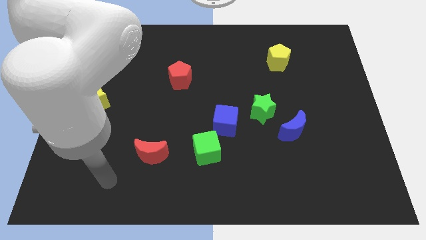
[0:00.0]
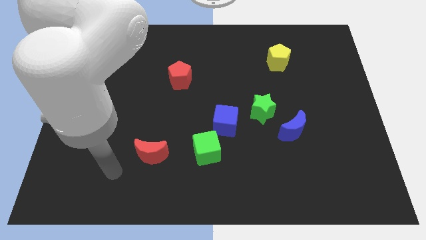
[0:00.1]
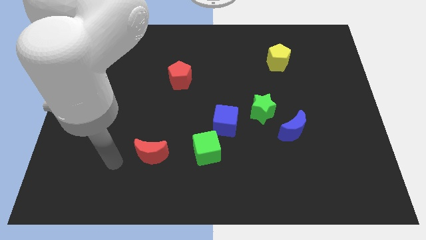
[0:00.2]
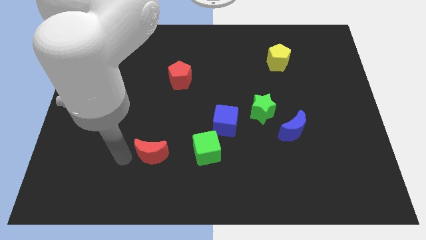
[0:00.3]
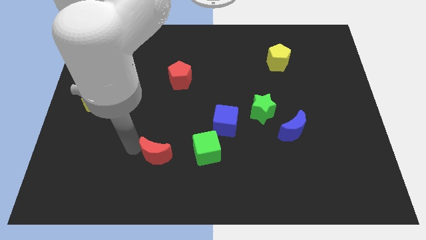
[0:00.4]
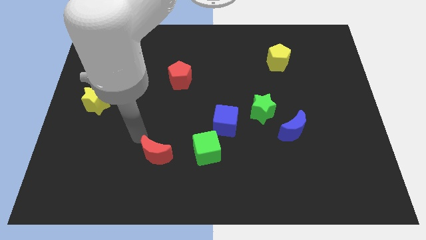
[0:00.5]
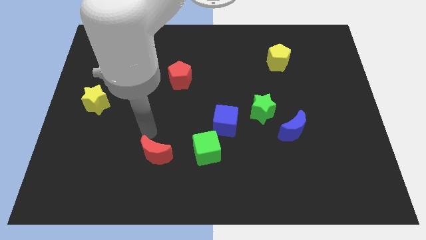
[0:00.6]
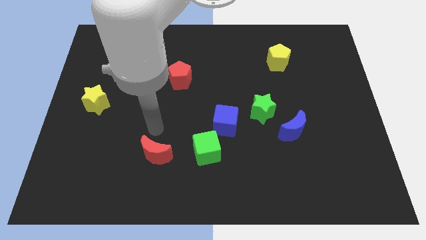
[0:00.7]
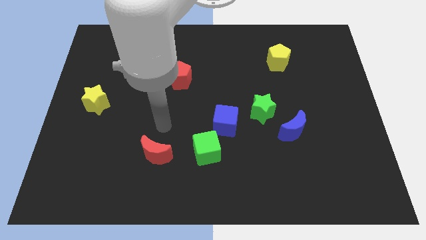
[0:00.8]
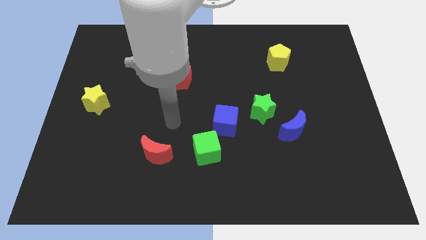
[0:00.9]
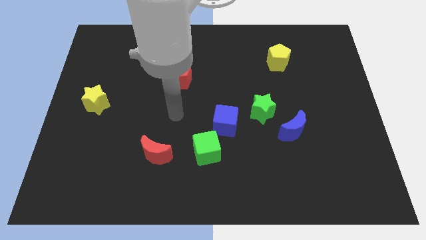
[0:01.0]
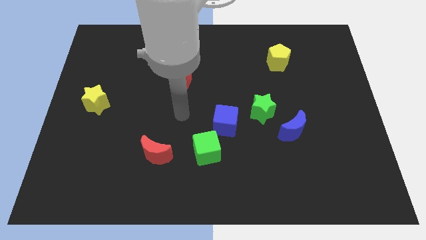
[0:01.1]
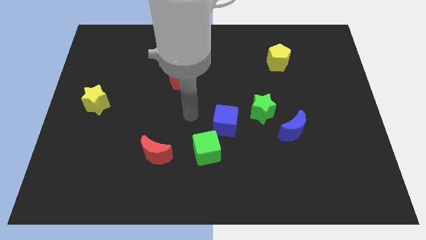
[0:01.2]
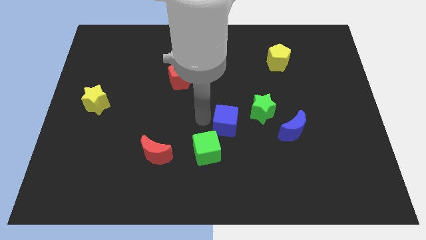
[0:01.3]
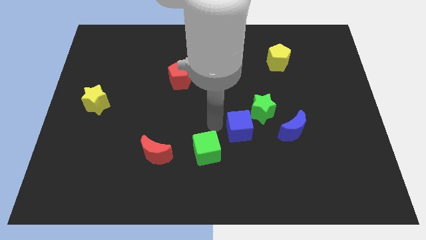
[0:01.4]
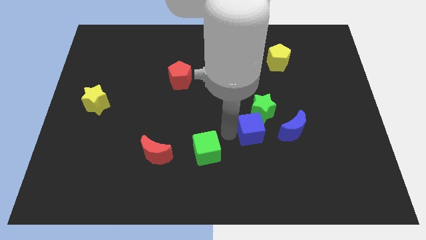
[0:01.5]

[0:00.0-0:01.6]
separate the green cube from the blue cube

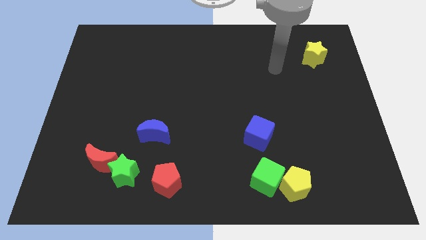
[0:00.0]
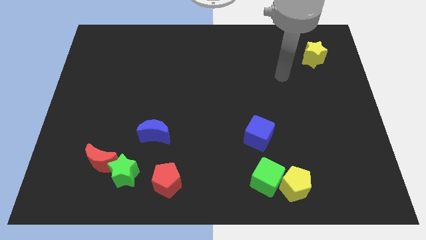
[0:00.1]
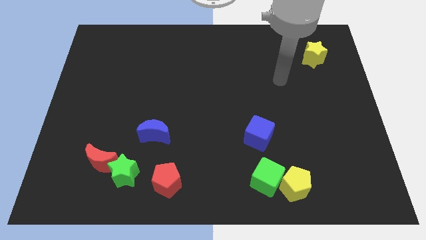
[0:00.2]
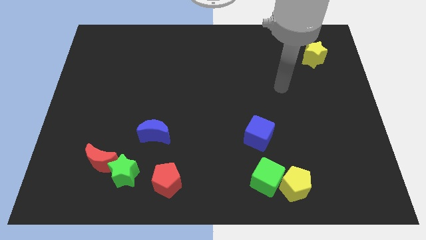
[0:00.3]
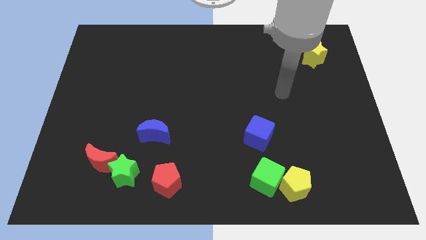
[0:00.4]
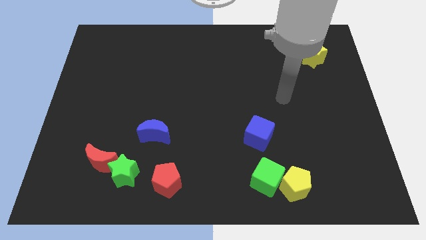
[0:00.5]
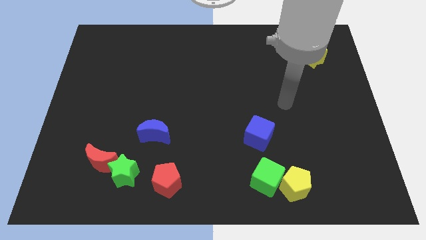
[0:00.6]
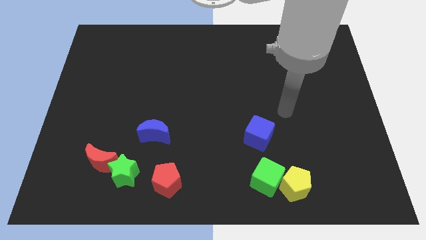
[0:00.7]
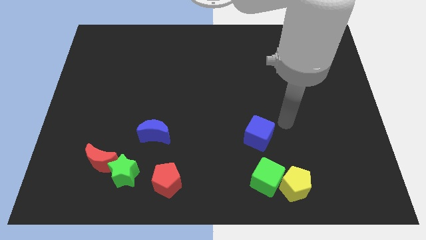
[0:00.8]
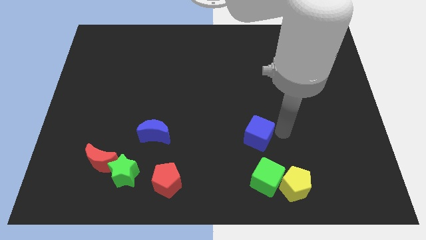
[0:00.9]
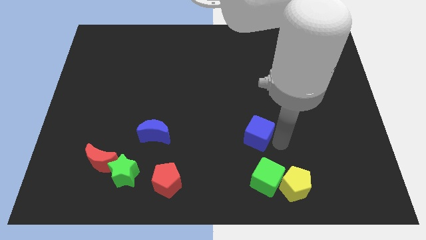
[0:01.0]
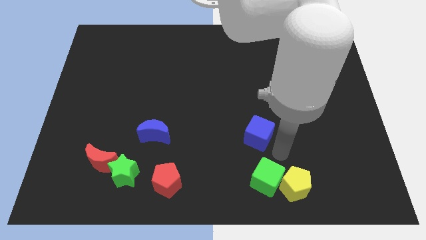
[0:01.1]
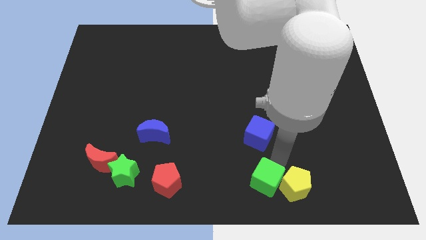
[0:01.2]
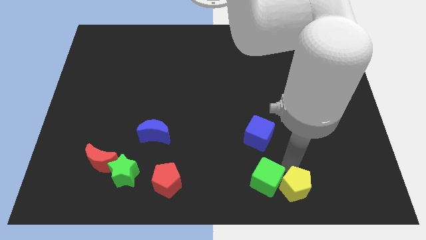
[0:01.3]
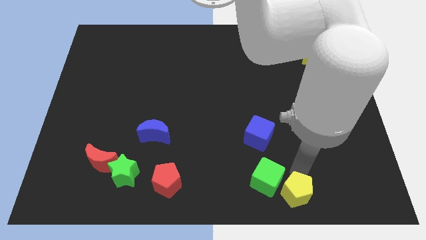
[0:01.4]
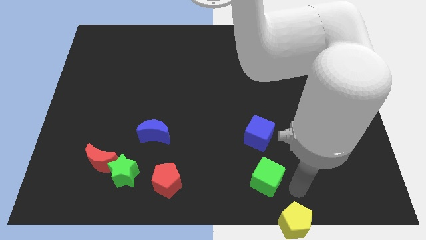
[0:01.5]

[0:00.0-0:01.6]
separate the green cube from the yellow pentagon

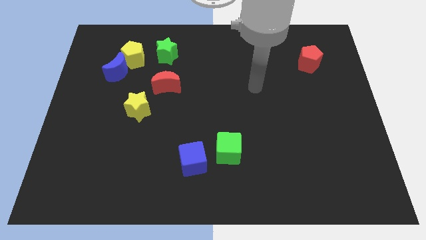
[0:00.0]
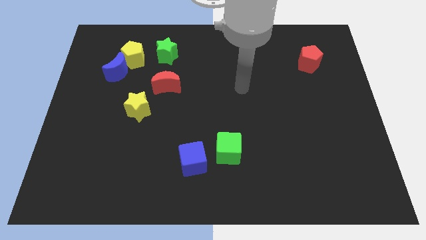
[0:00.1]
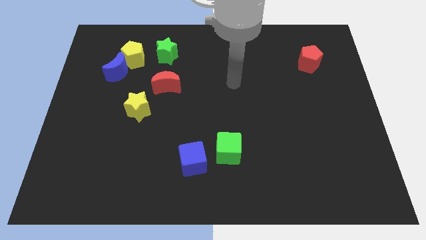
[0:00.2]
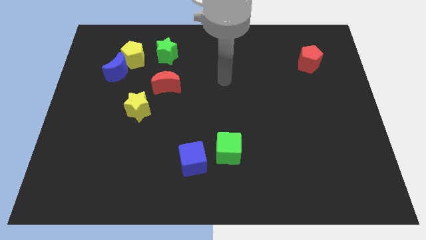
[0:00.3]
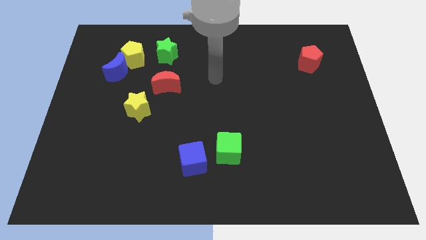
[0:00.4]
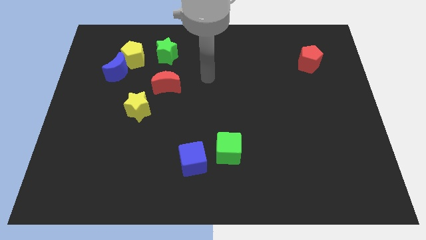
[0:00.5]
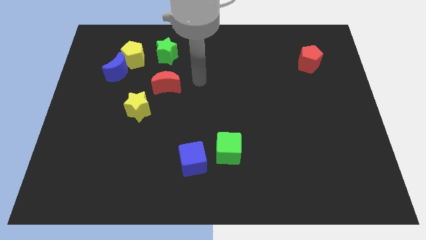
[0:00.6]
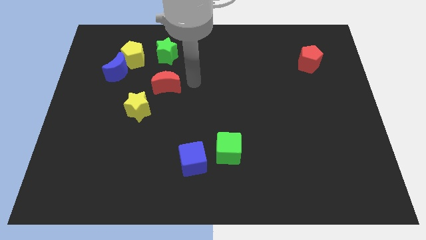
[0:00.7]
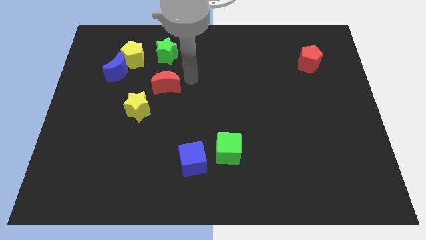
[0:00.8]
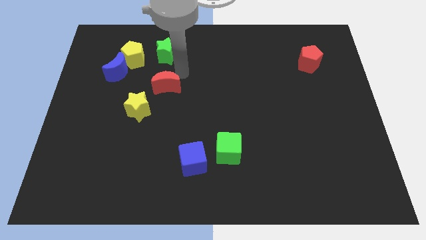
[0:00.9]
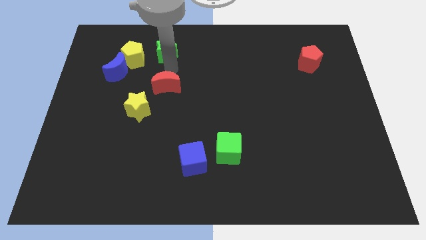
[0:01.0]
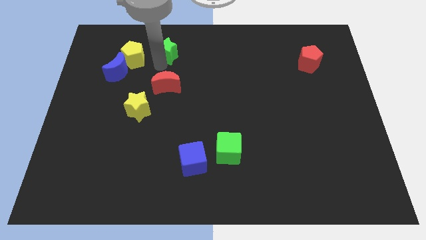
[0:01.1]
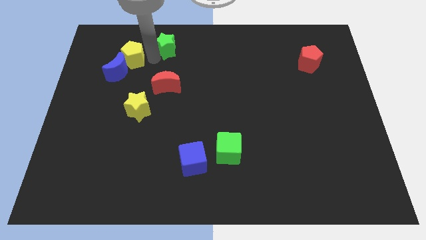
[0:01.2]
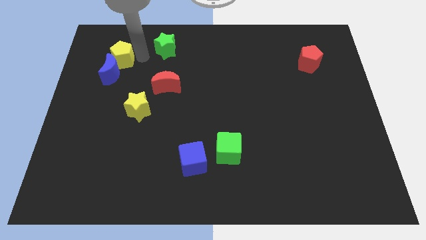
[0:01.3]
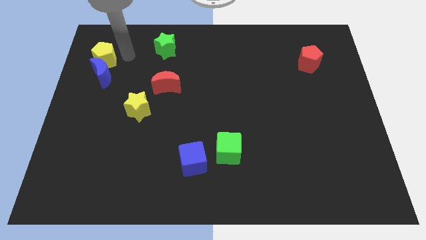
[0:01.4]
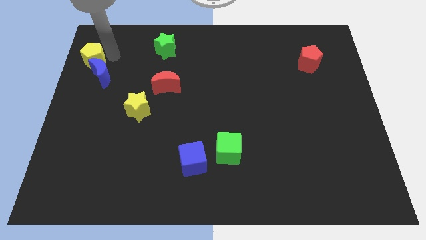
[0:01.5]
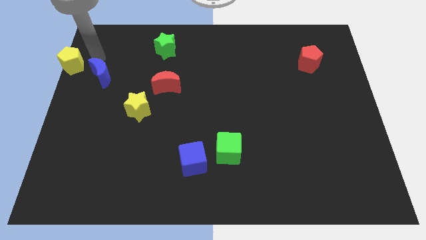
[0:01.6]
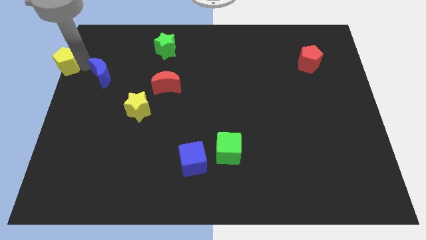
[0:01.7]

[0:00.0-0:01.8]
pull the blue moon apart from the yellow pentagon

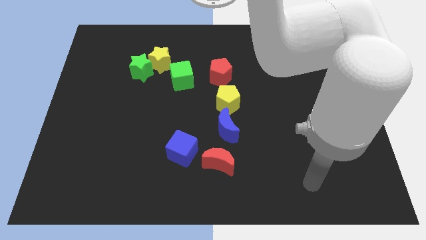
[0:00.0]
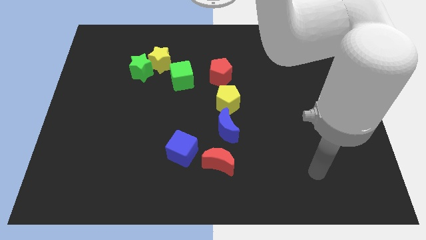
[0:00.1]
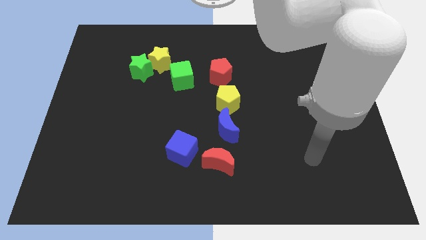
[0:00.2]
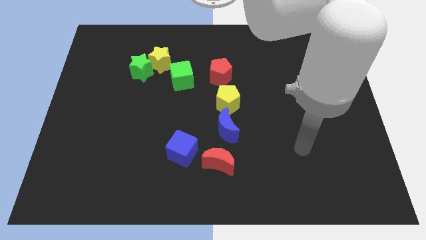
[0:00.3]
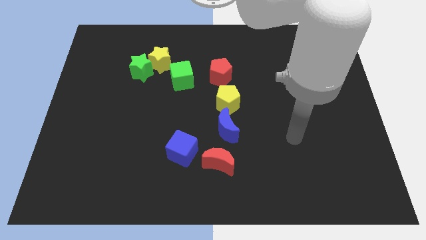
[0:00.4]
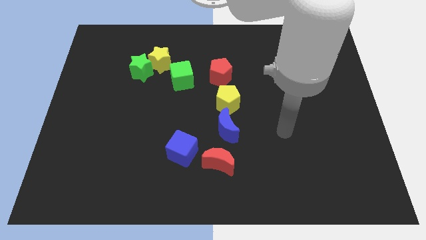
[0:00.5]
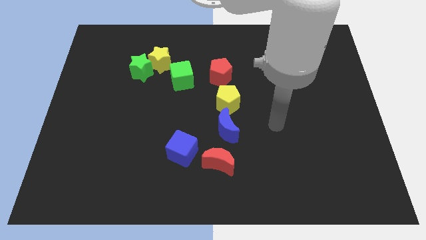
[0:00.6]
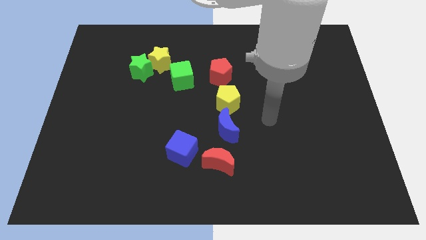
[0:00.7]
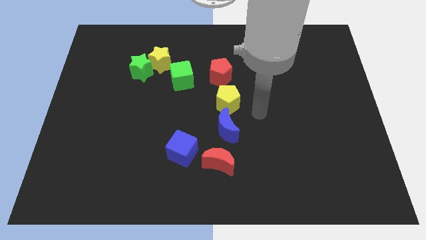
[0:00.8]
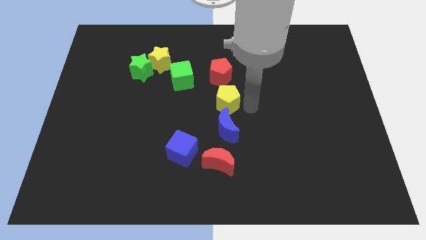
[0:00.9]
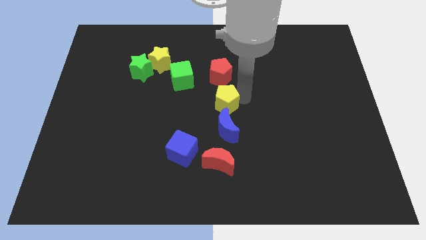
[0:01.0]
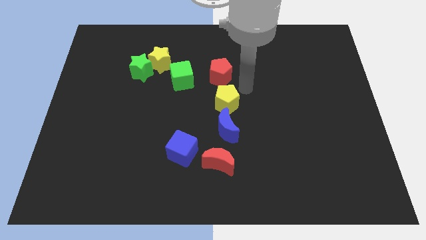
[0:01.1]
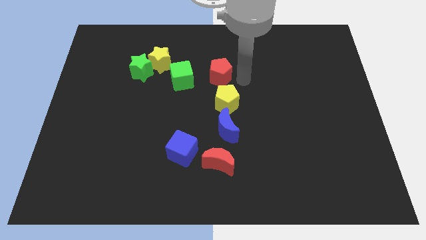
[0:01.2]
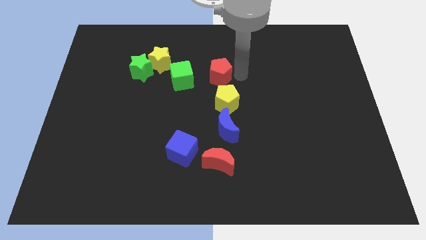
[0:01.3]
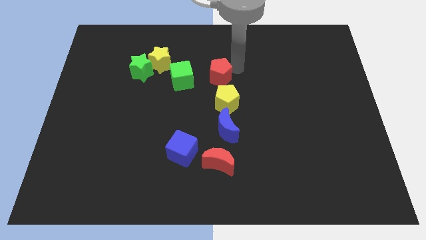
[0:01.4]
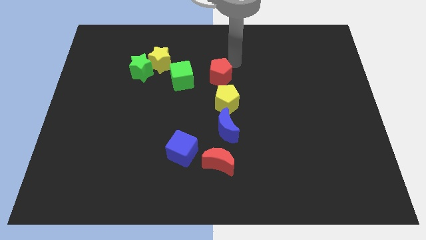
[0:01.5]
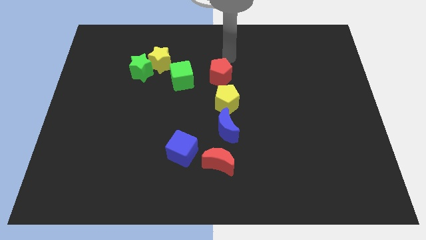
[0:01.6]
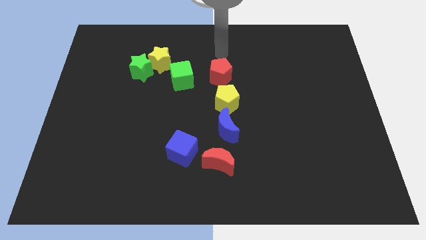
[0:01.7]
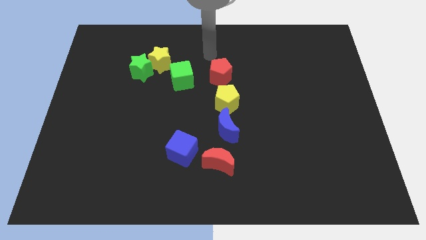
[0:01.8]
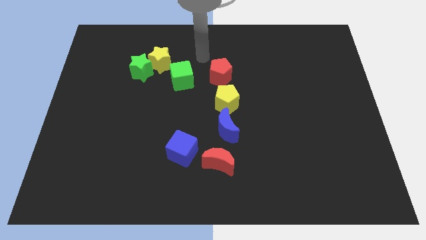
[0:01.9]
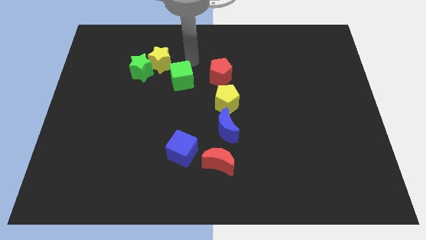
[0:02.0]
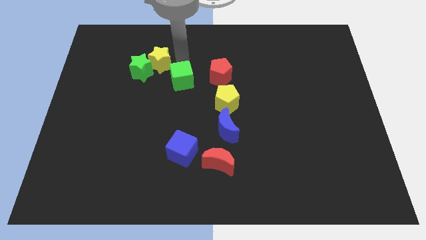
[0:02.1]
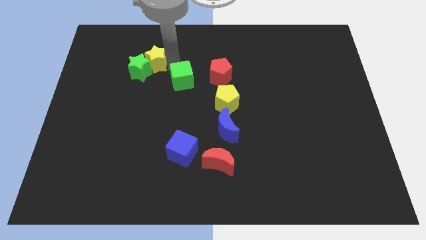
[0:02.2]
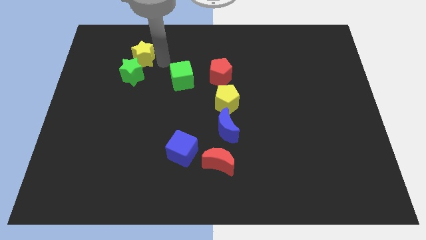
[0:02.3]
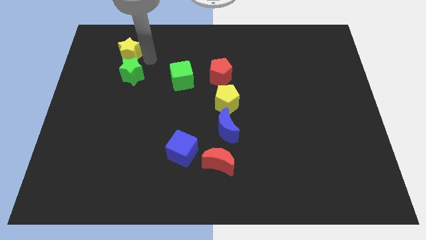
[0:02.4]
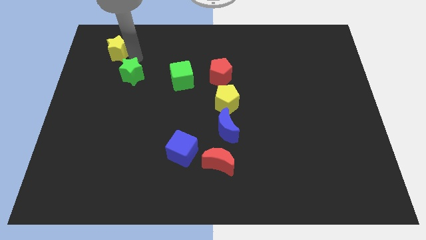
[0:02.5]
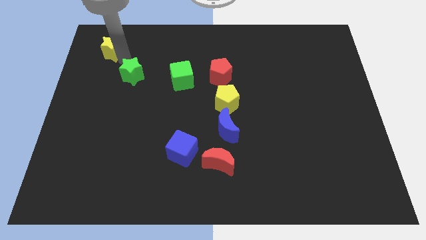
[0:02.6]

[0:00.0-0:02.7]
move the green star away from the yellow star

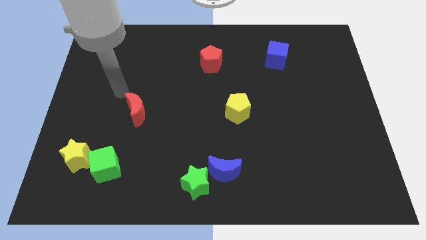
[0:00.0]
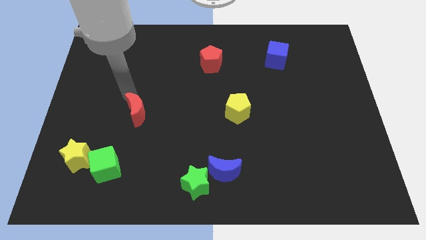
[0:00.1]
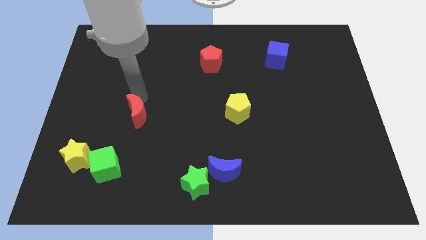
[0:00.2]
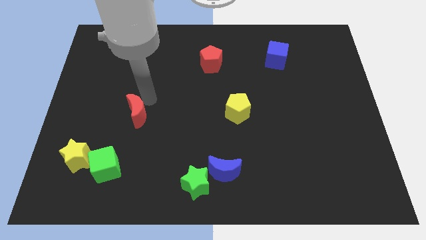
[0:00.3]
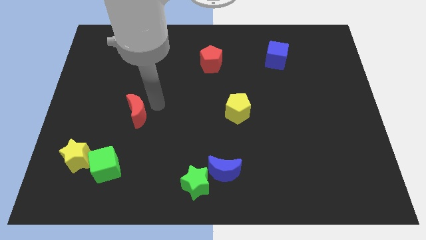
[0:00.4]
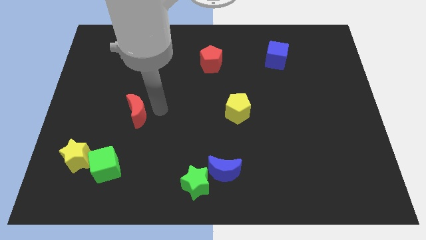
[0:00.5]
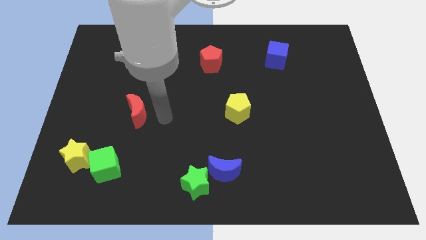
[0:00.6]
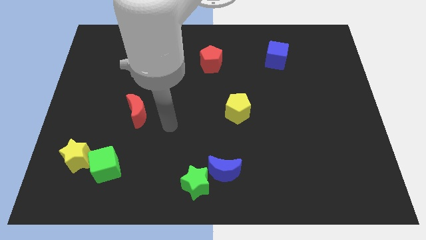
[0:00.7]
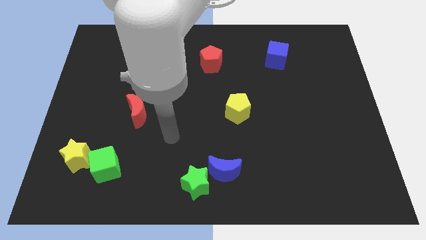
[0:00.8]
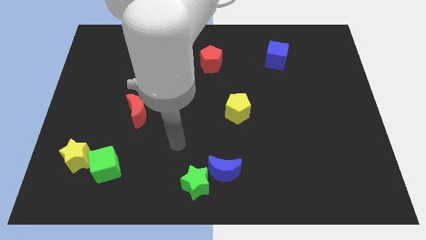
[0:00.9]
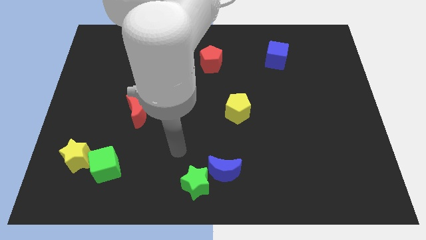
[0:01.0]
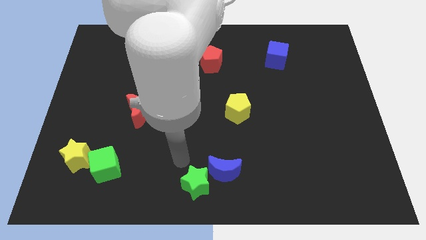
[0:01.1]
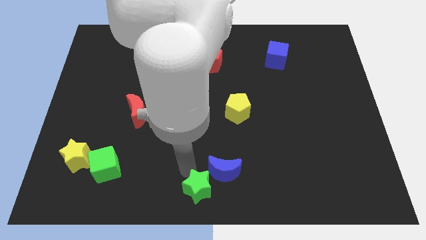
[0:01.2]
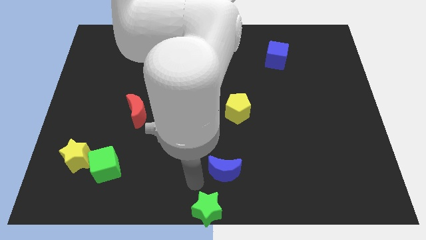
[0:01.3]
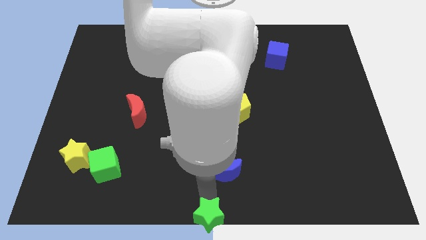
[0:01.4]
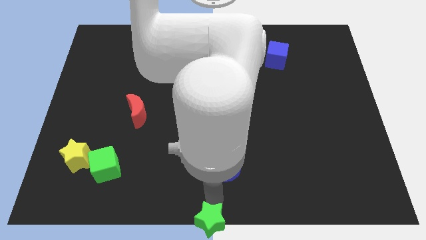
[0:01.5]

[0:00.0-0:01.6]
separate the blue moon from the green star

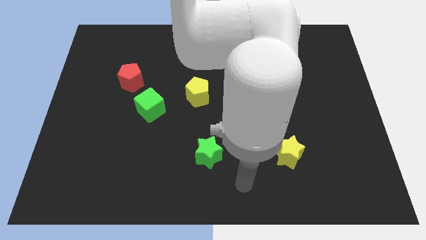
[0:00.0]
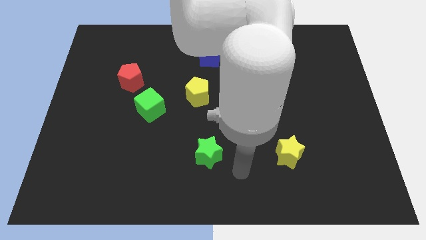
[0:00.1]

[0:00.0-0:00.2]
separate the red pentagon from the green cube

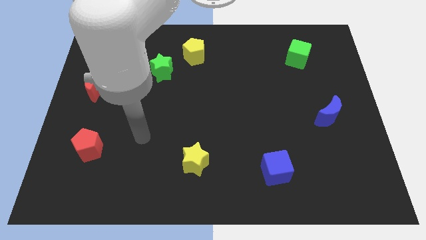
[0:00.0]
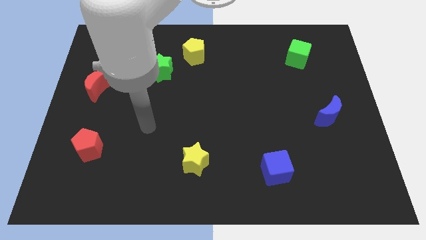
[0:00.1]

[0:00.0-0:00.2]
separate the green star from the yellow pentagon
